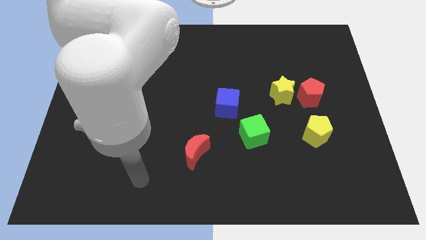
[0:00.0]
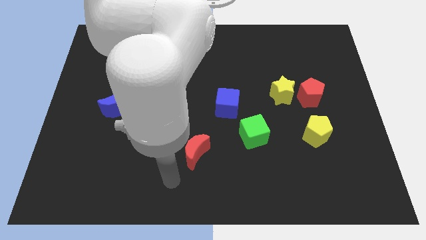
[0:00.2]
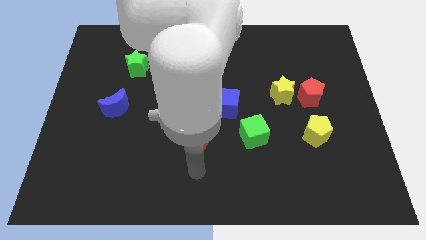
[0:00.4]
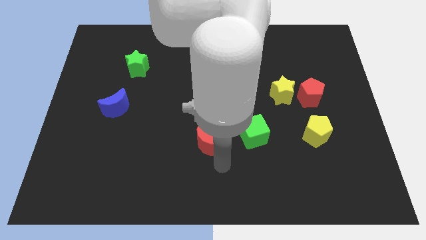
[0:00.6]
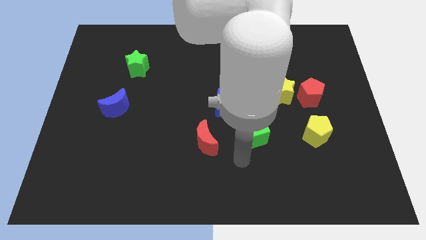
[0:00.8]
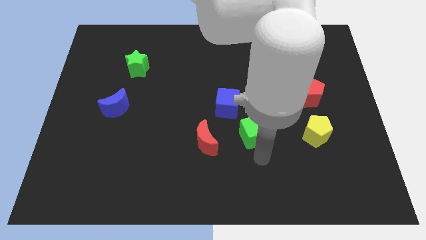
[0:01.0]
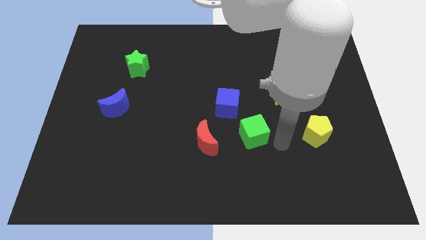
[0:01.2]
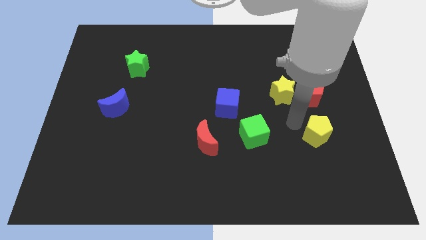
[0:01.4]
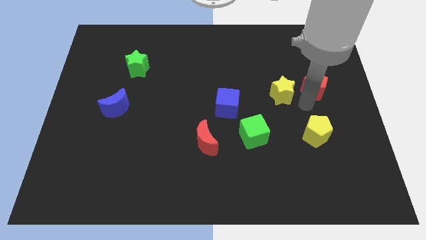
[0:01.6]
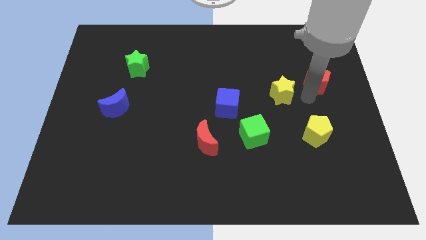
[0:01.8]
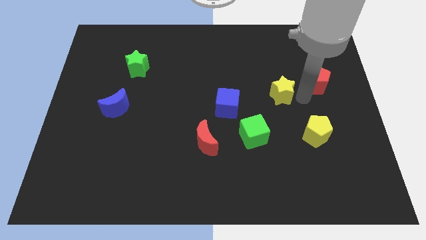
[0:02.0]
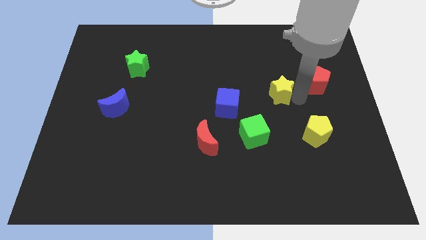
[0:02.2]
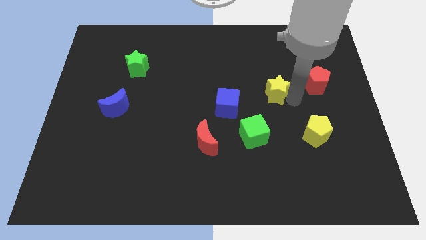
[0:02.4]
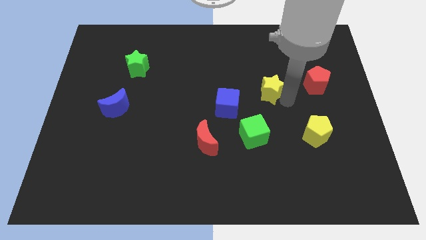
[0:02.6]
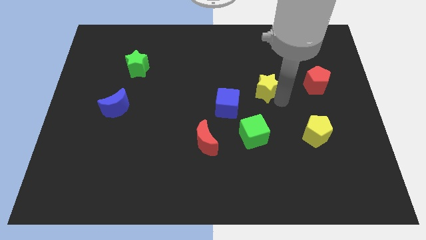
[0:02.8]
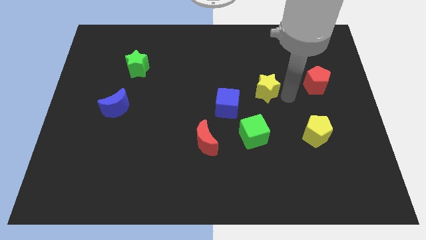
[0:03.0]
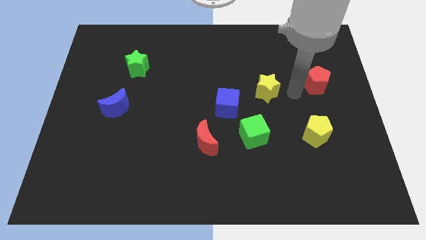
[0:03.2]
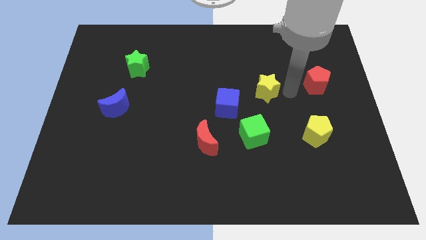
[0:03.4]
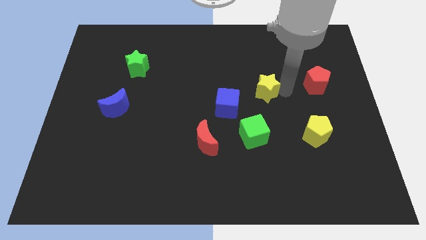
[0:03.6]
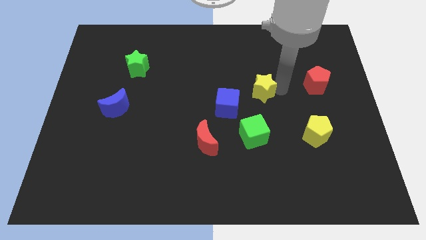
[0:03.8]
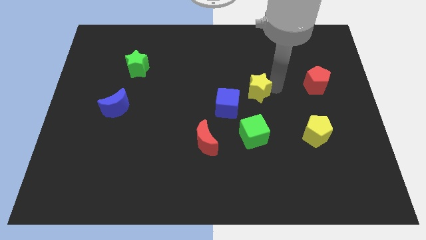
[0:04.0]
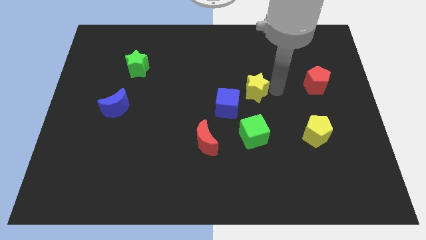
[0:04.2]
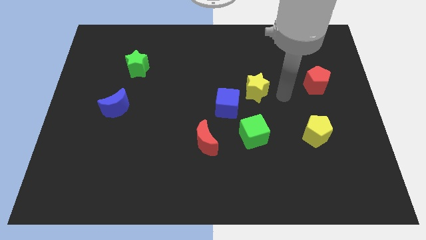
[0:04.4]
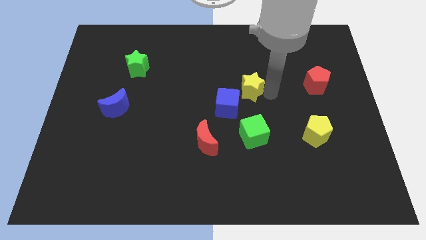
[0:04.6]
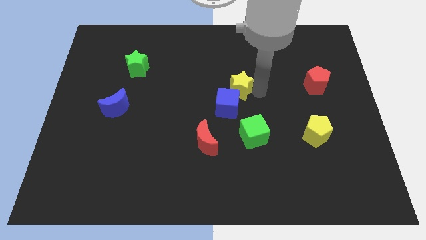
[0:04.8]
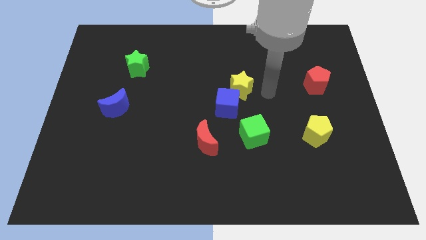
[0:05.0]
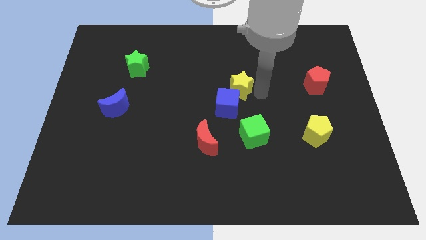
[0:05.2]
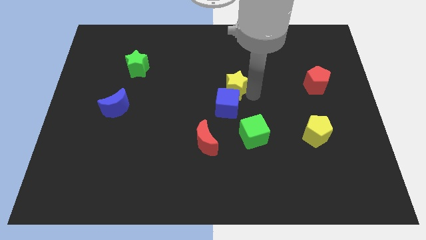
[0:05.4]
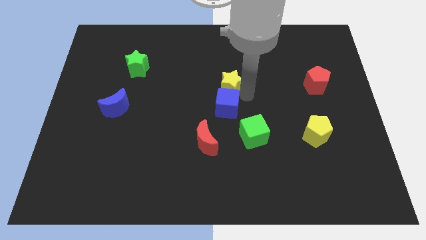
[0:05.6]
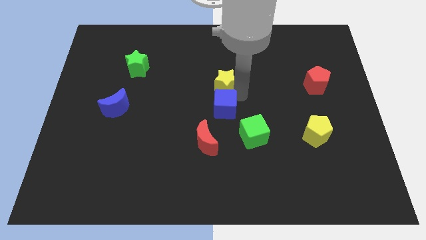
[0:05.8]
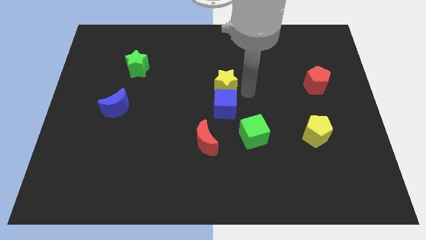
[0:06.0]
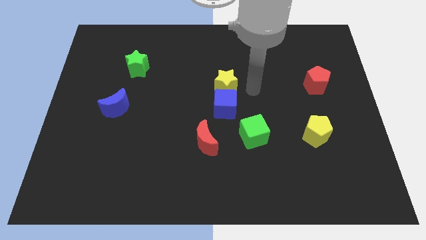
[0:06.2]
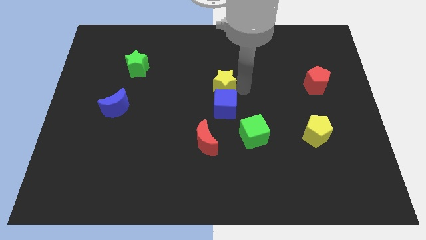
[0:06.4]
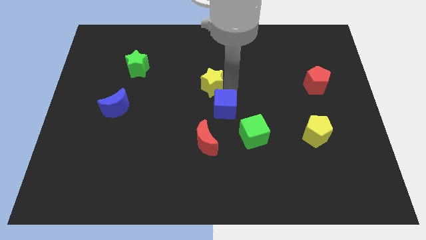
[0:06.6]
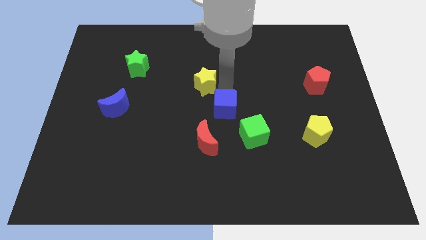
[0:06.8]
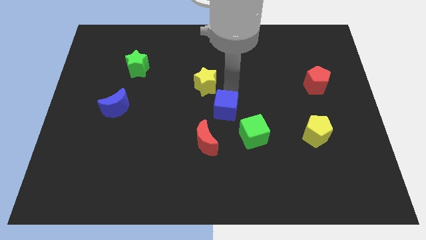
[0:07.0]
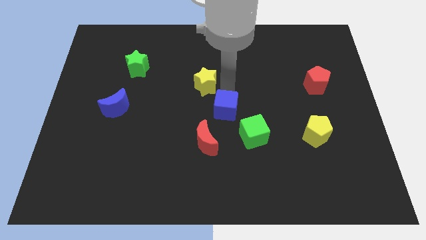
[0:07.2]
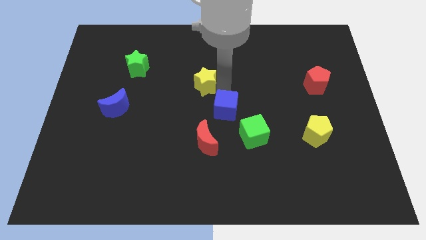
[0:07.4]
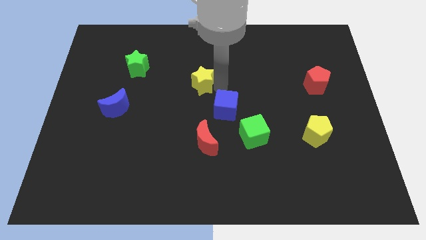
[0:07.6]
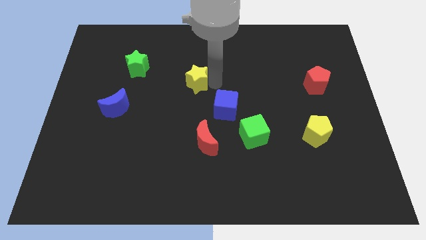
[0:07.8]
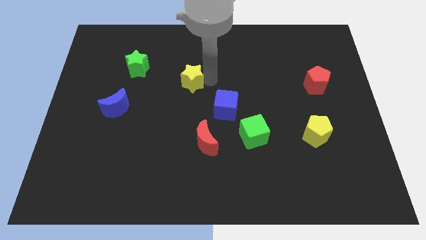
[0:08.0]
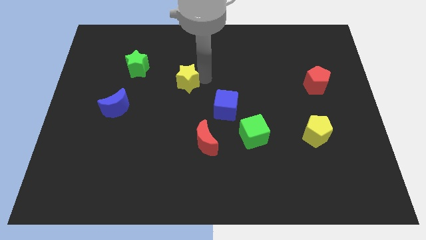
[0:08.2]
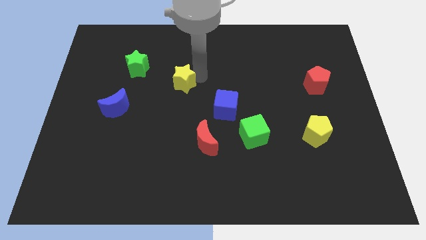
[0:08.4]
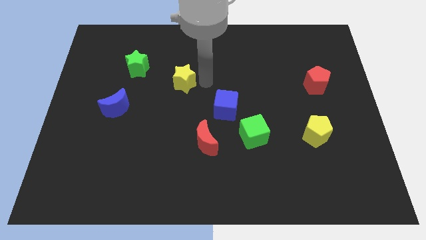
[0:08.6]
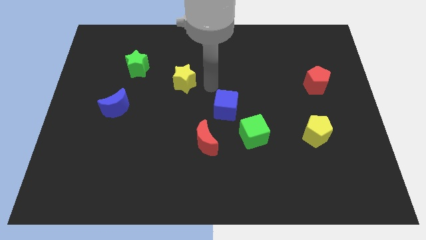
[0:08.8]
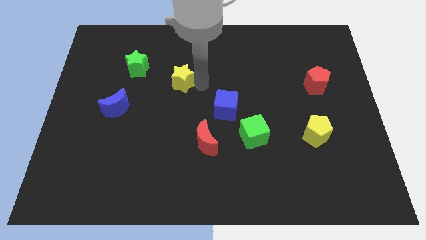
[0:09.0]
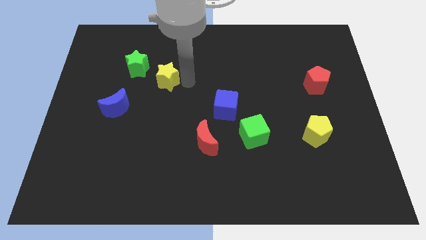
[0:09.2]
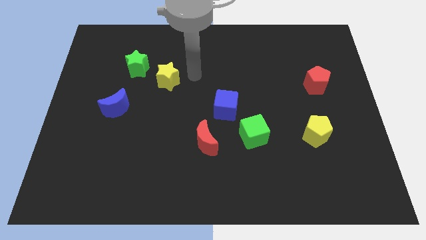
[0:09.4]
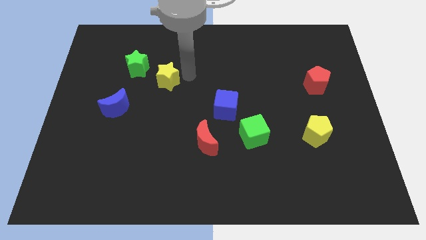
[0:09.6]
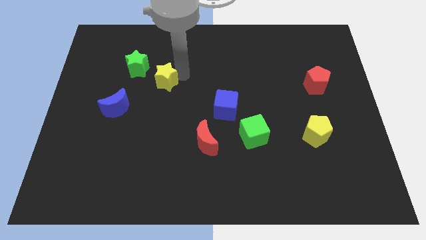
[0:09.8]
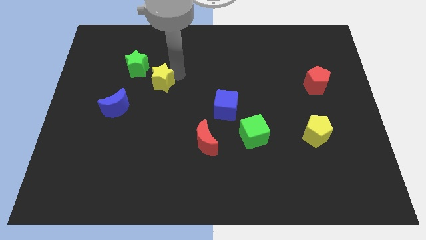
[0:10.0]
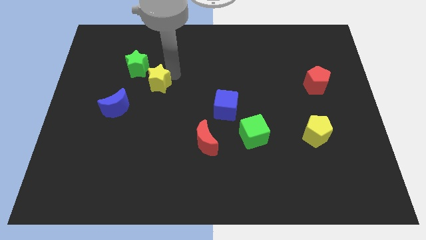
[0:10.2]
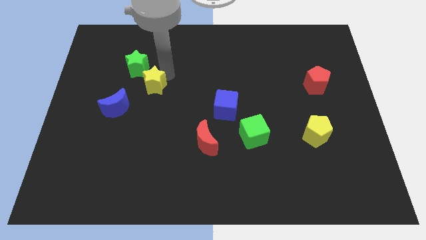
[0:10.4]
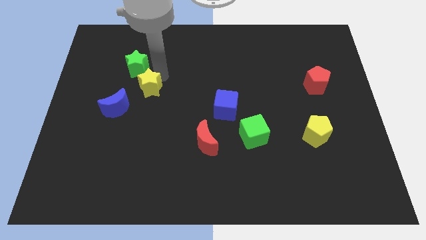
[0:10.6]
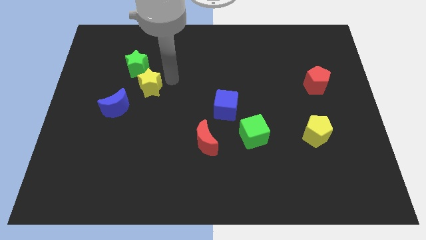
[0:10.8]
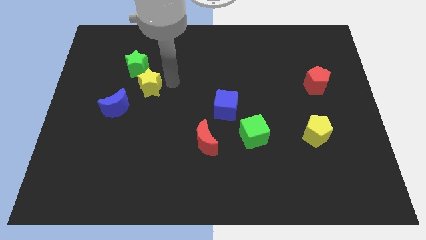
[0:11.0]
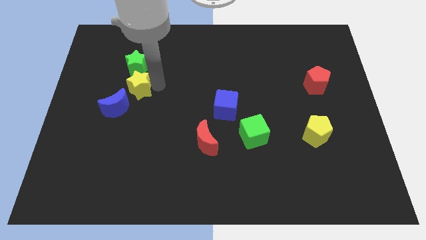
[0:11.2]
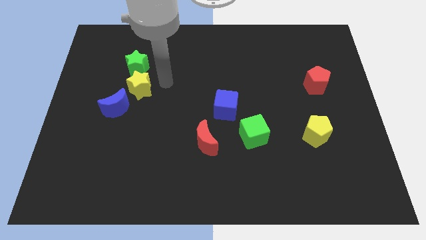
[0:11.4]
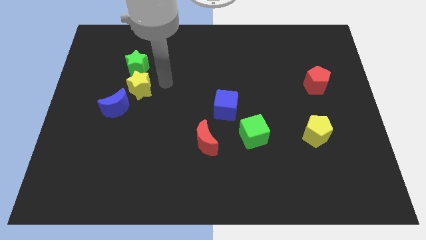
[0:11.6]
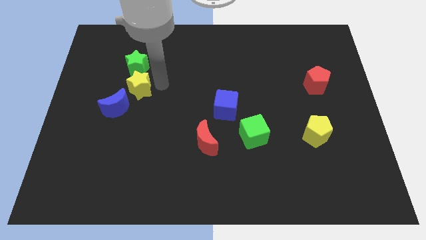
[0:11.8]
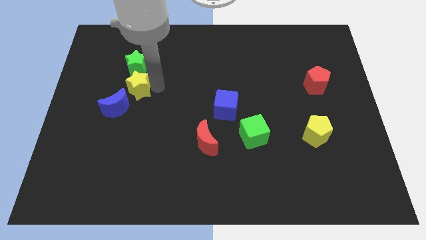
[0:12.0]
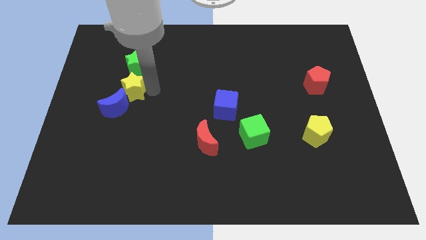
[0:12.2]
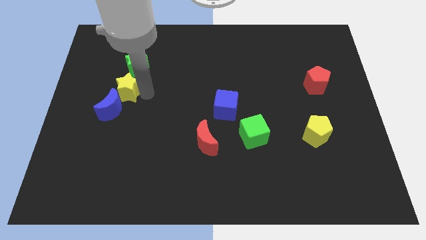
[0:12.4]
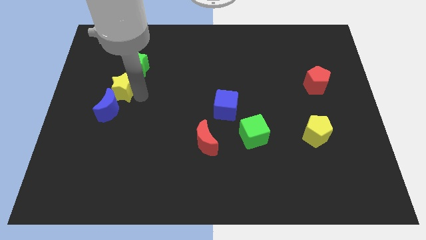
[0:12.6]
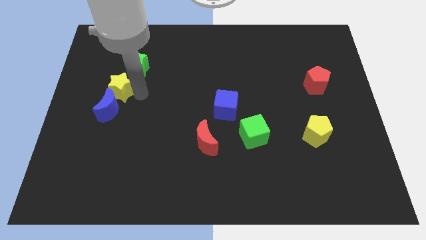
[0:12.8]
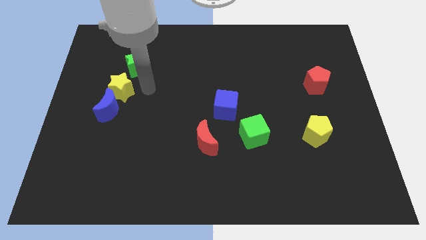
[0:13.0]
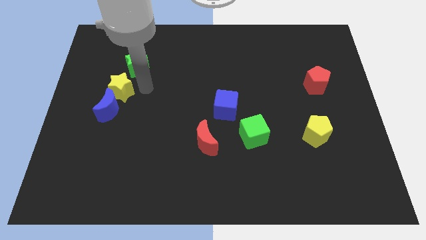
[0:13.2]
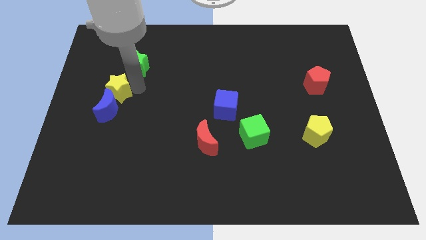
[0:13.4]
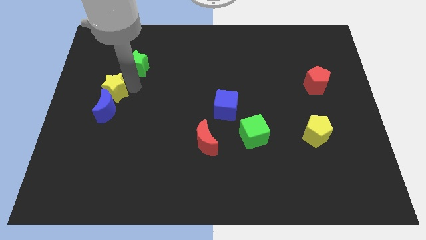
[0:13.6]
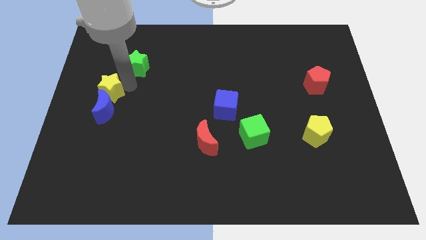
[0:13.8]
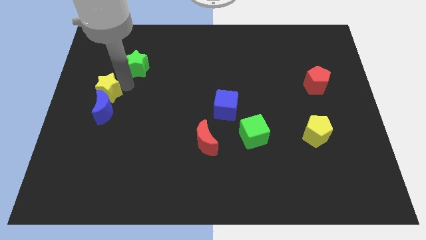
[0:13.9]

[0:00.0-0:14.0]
move the yellow star to the left side of the board
